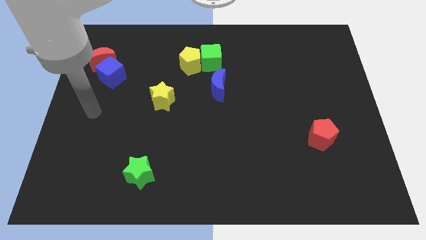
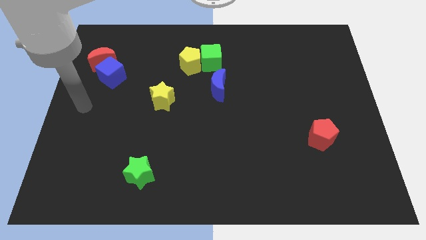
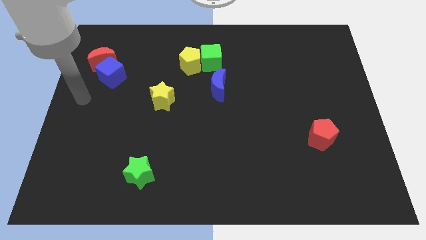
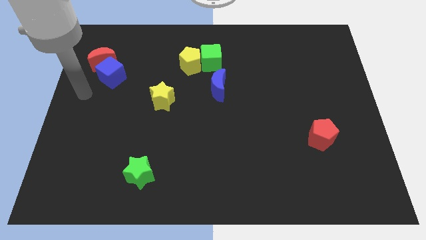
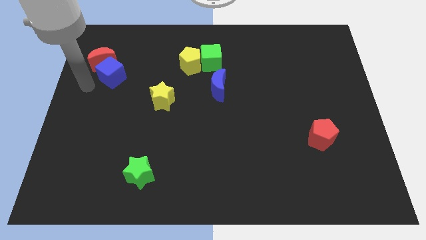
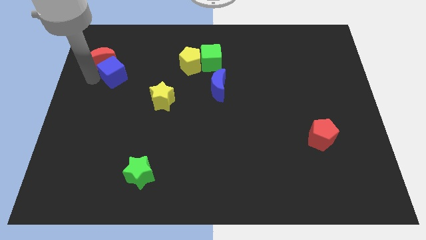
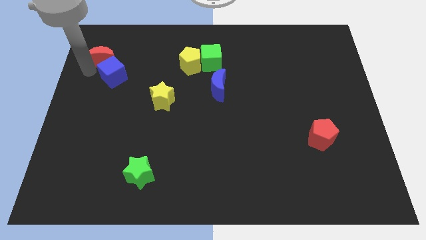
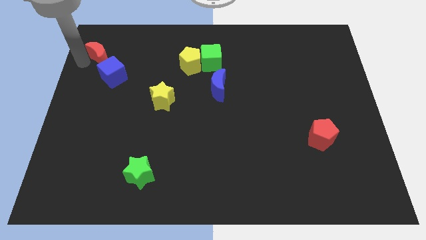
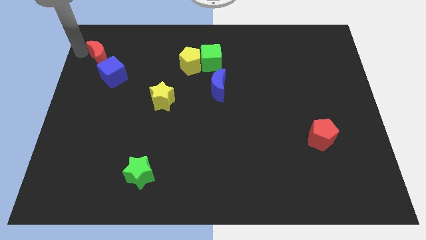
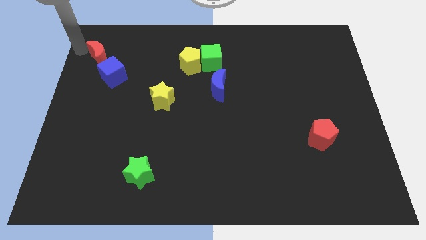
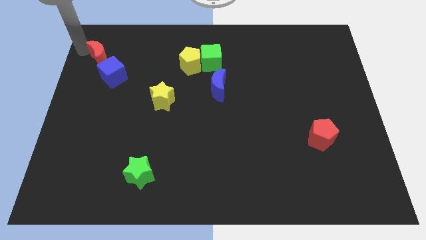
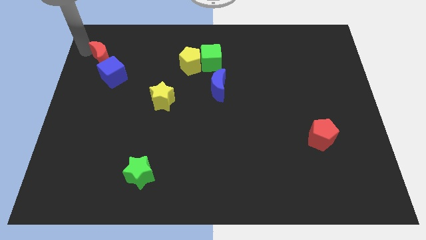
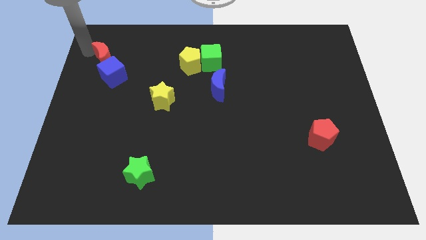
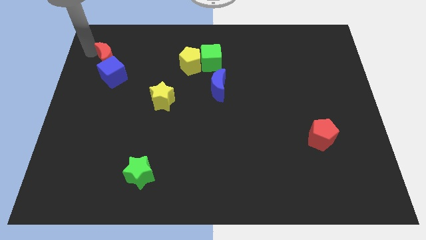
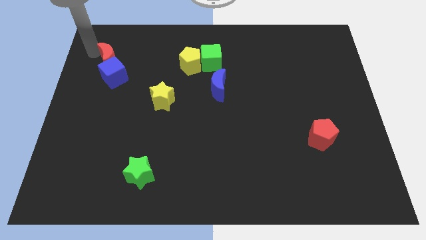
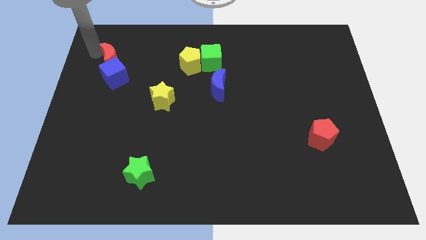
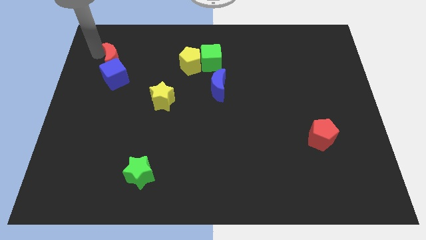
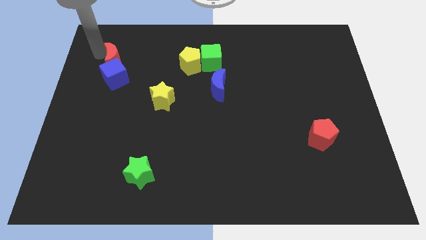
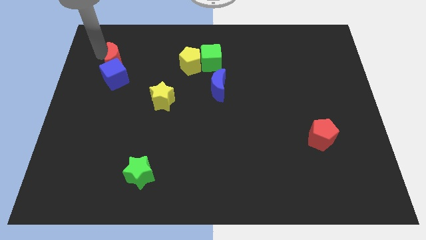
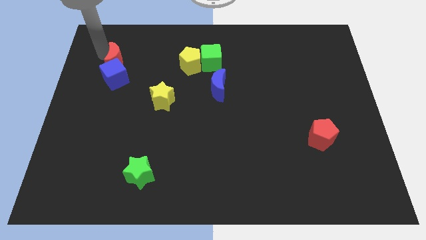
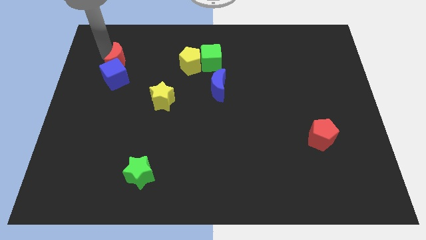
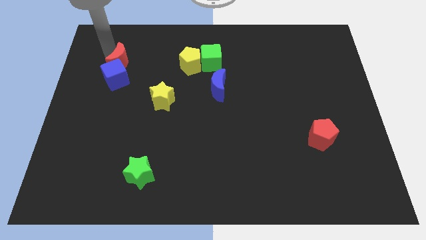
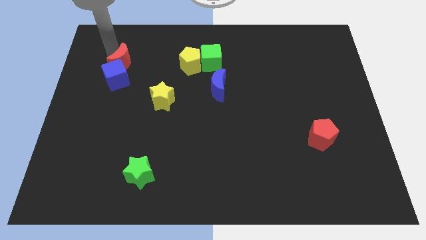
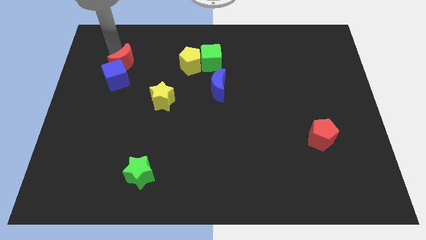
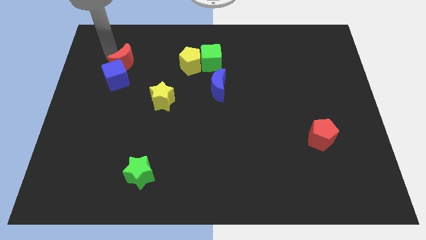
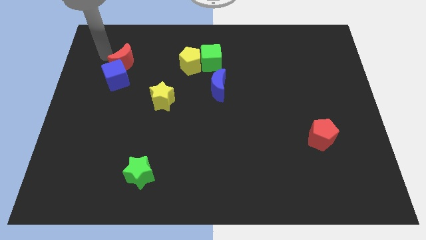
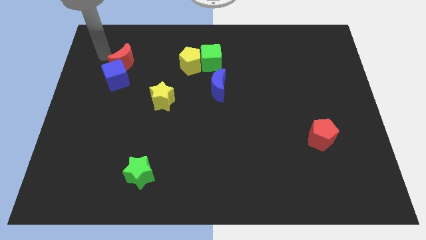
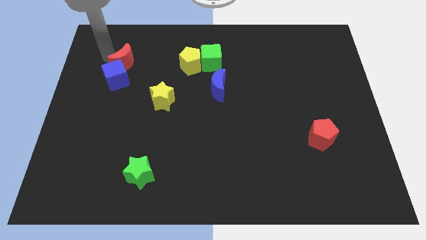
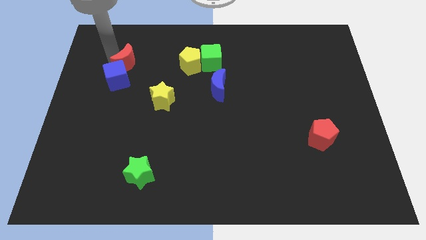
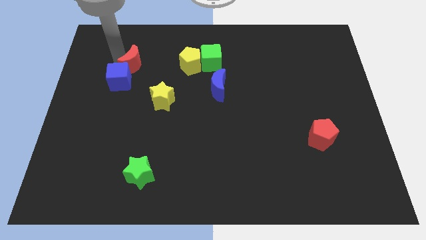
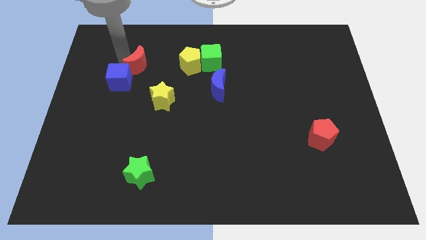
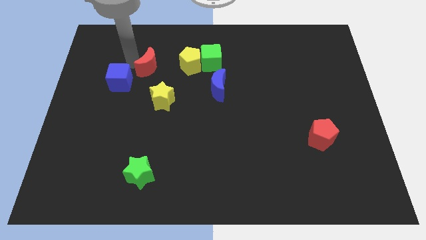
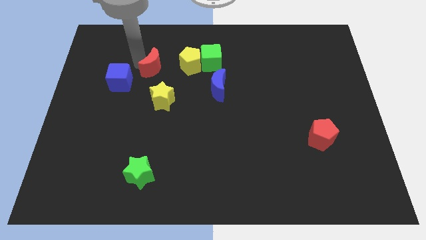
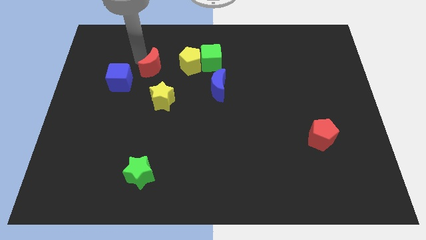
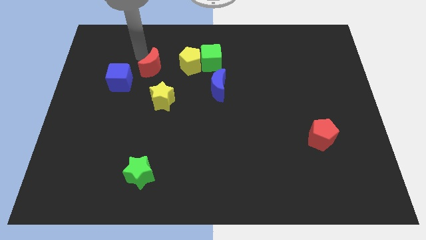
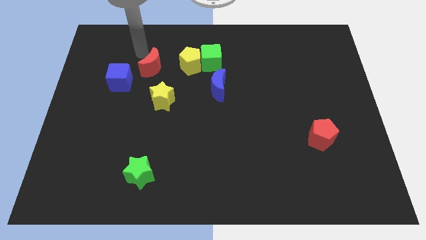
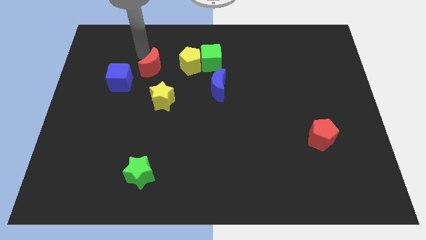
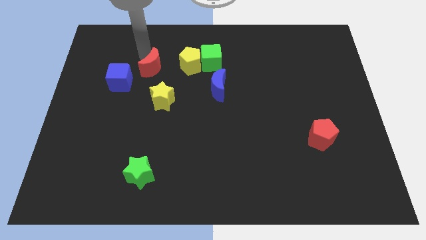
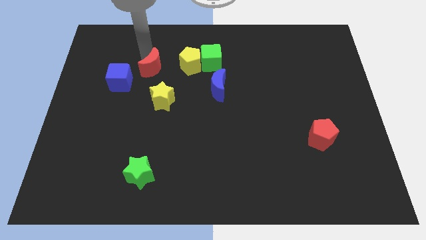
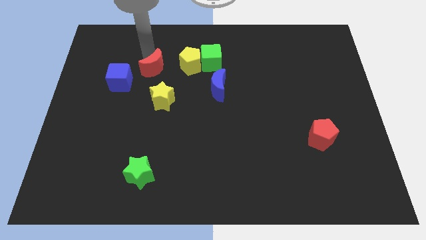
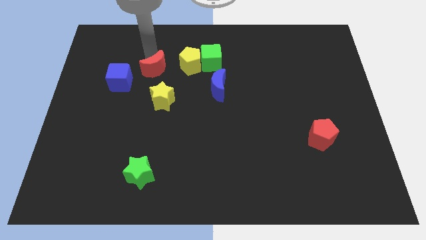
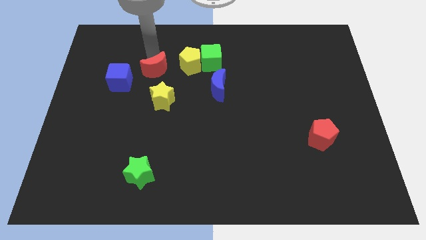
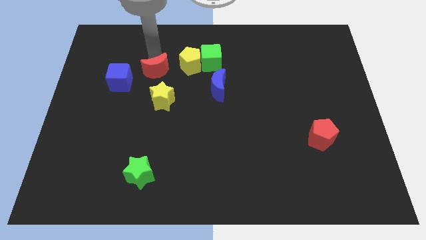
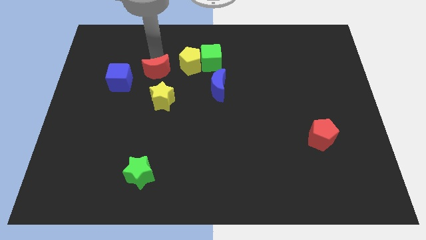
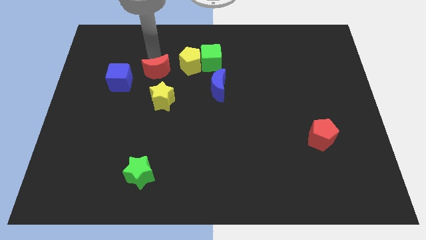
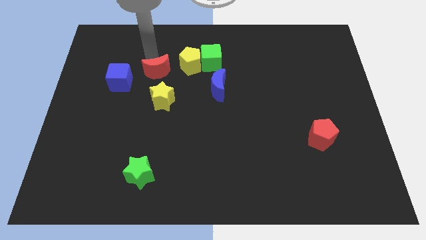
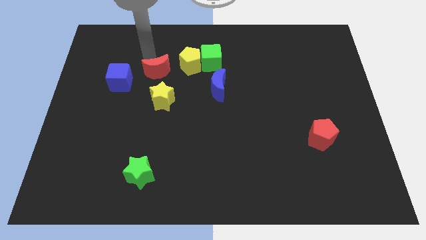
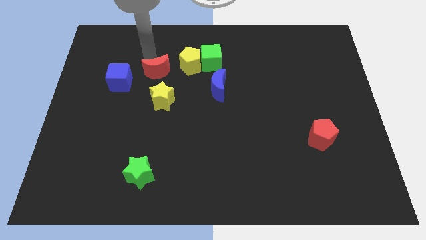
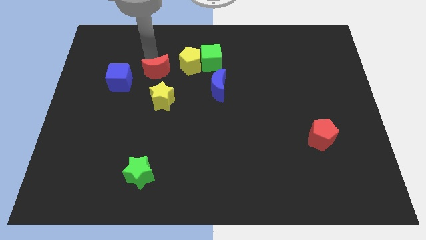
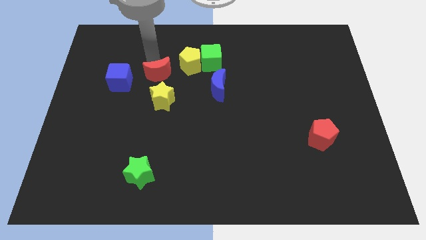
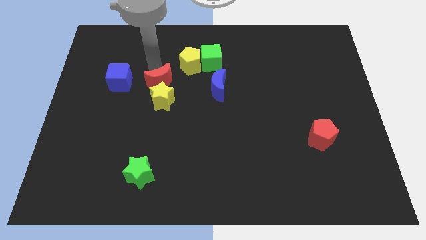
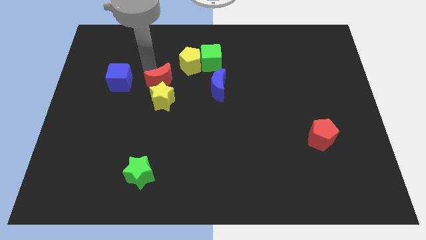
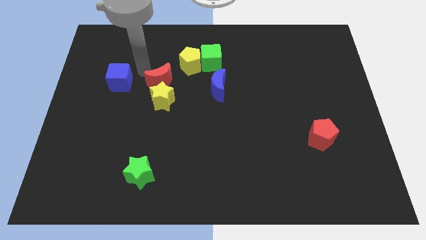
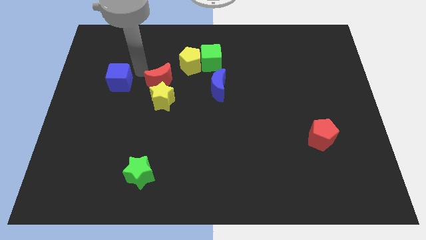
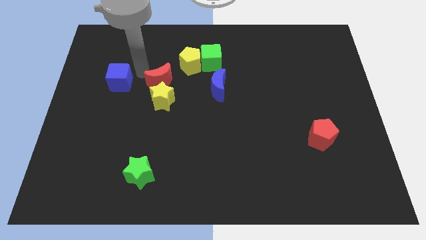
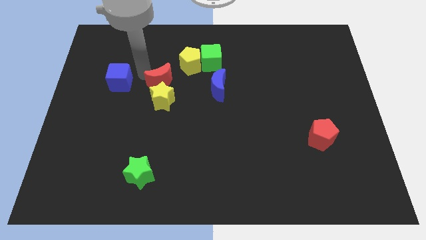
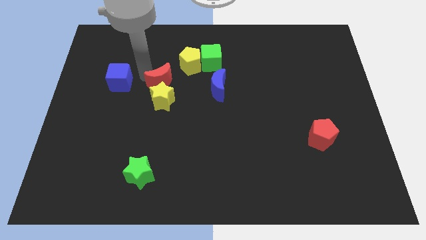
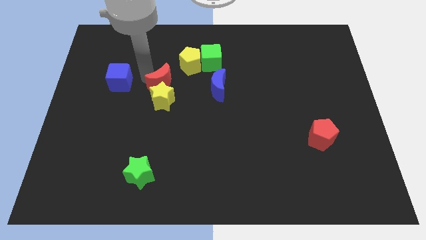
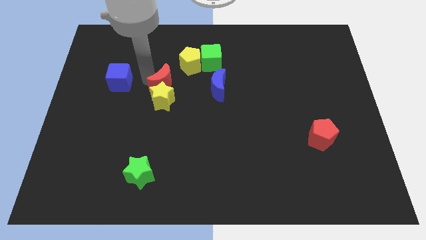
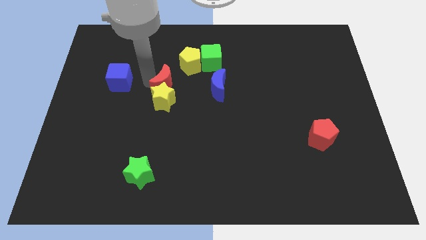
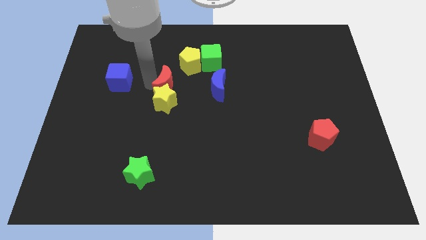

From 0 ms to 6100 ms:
slide the red moon to the center of the board
